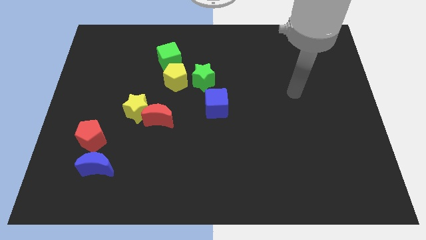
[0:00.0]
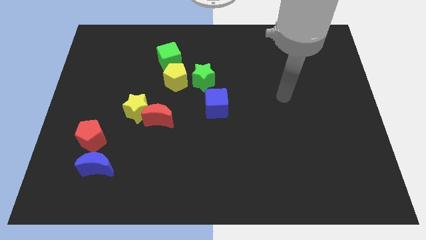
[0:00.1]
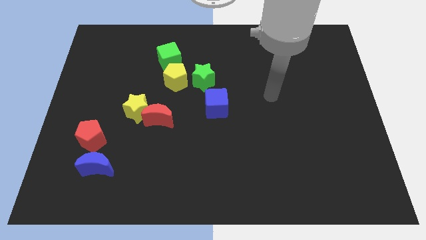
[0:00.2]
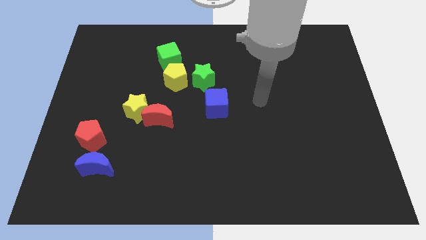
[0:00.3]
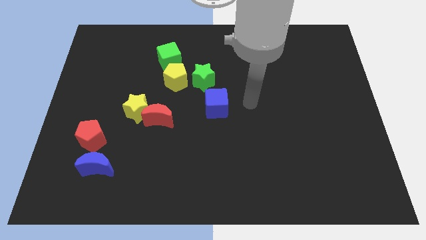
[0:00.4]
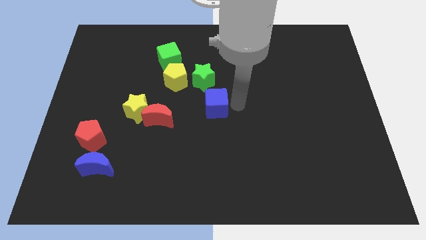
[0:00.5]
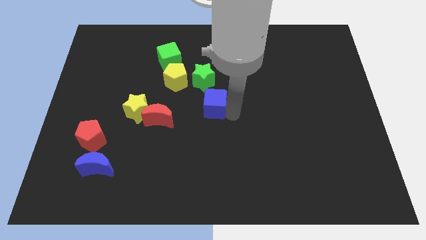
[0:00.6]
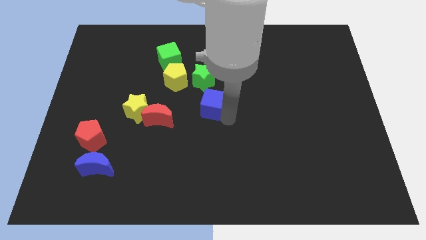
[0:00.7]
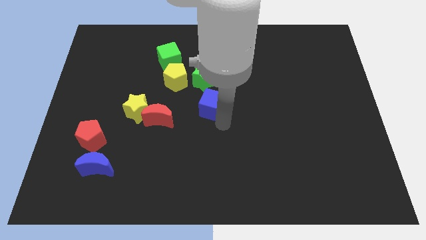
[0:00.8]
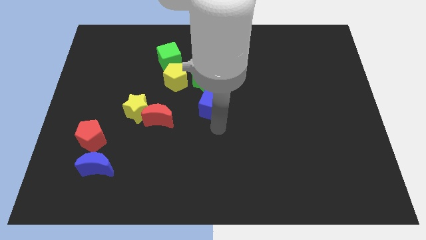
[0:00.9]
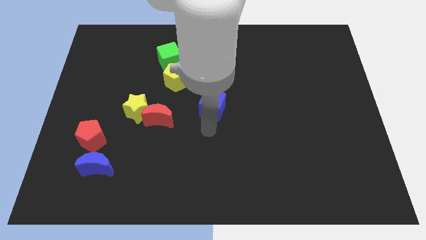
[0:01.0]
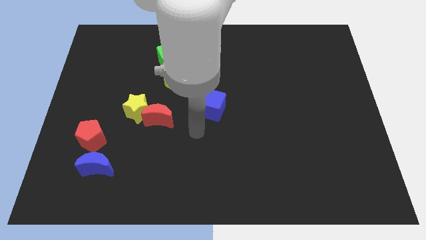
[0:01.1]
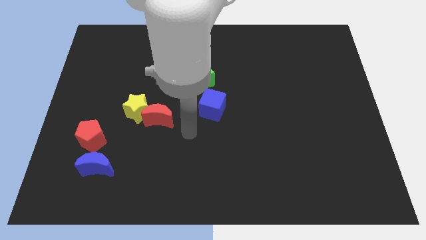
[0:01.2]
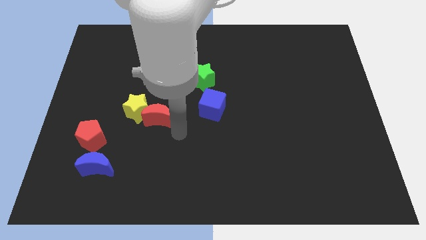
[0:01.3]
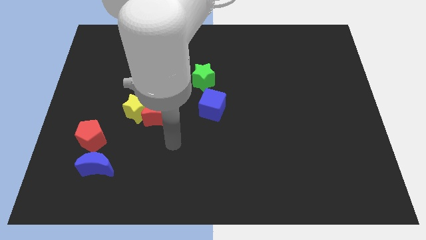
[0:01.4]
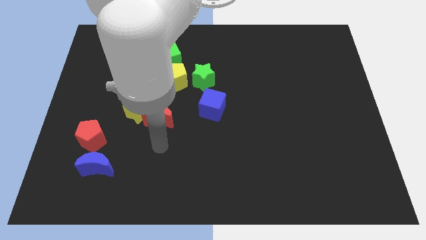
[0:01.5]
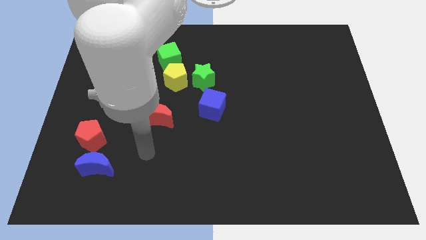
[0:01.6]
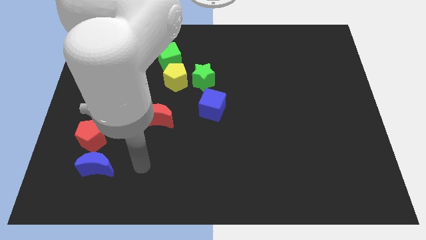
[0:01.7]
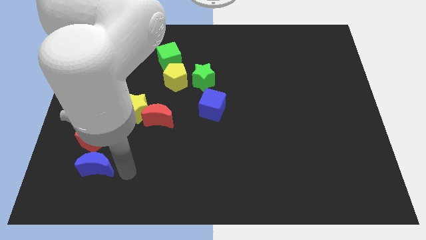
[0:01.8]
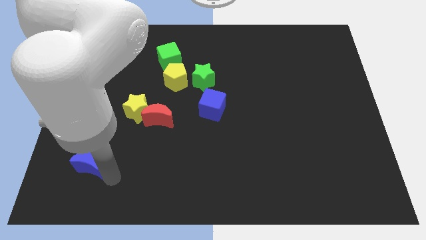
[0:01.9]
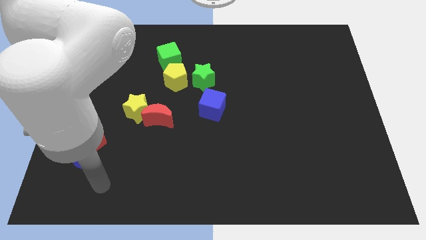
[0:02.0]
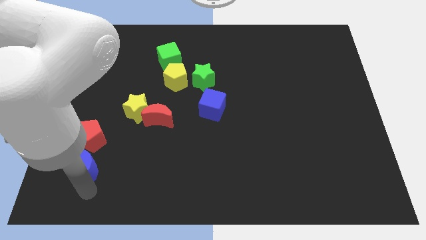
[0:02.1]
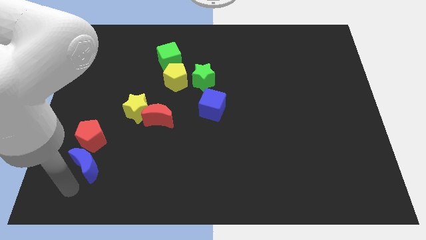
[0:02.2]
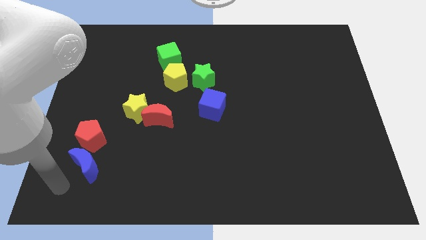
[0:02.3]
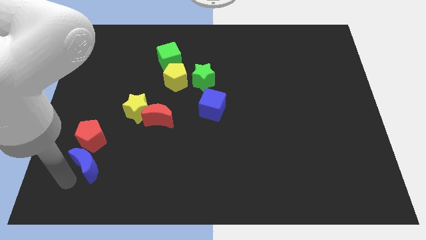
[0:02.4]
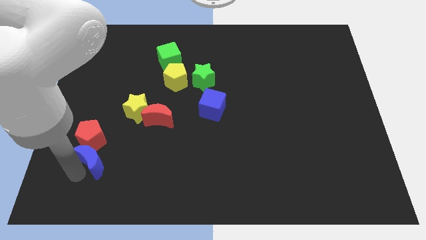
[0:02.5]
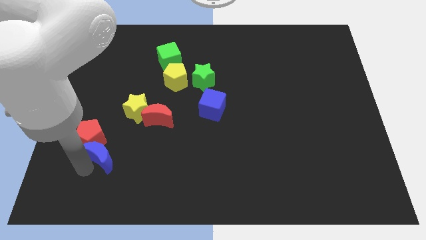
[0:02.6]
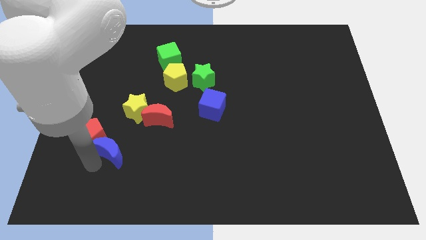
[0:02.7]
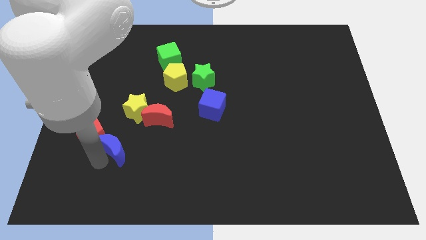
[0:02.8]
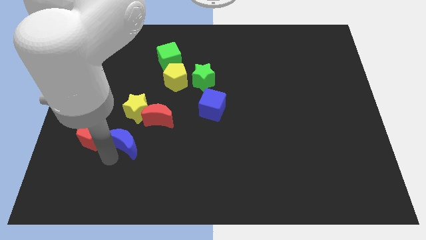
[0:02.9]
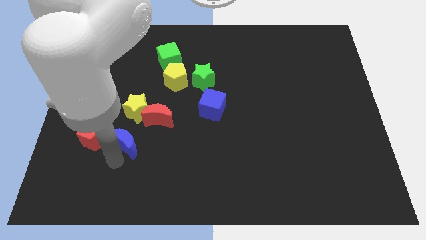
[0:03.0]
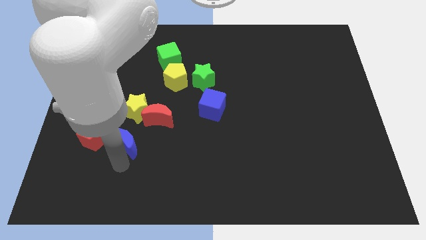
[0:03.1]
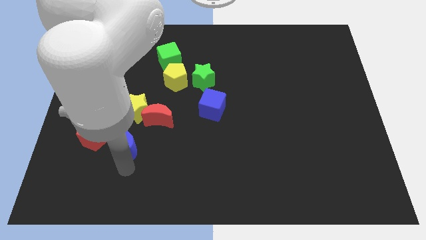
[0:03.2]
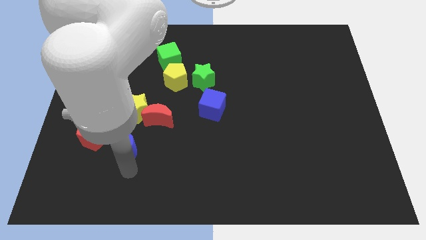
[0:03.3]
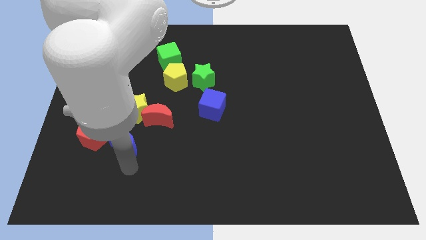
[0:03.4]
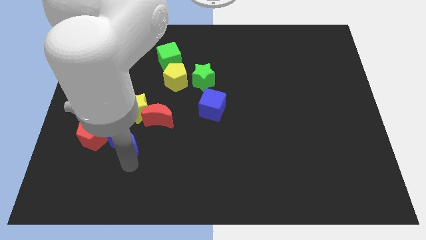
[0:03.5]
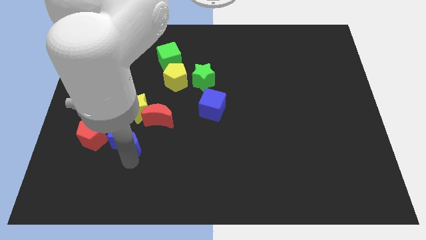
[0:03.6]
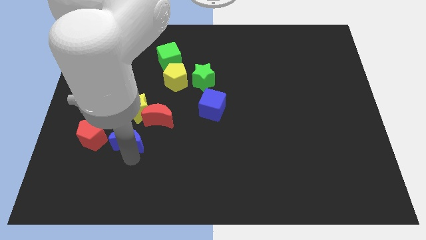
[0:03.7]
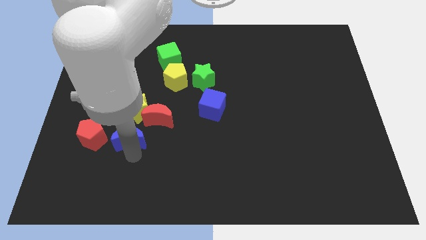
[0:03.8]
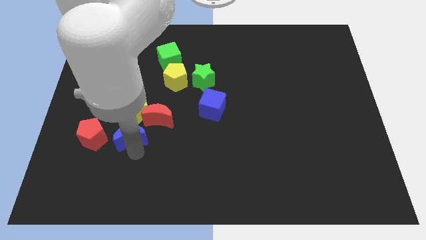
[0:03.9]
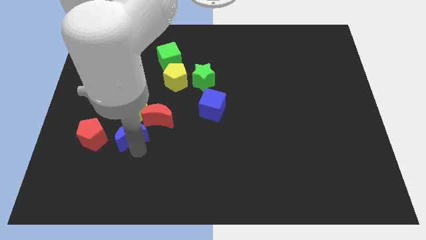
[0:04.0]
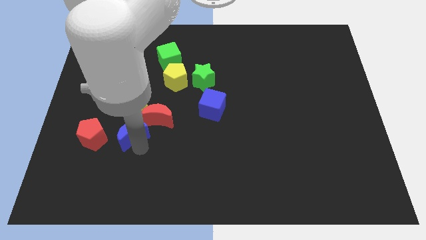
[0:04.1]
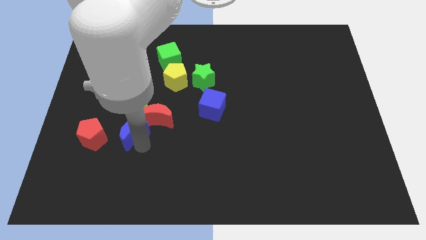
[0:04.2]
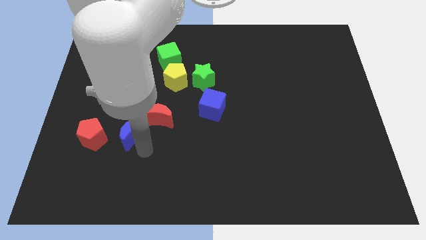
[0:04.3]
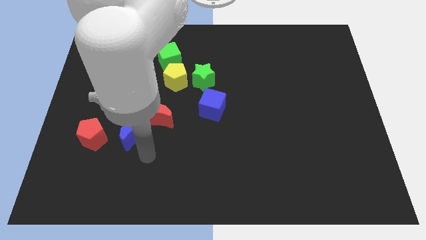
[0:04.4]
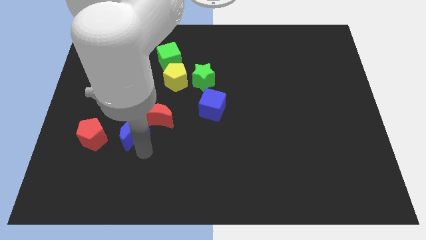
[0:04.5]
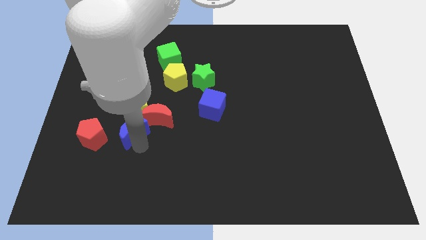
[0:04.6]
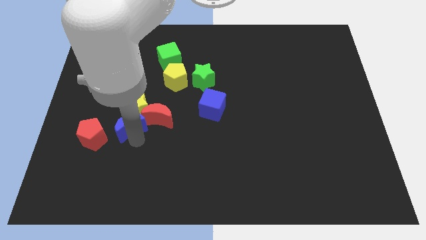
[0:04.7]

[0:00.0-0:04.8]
put the blue moon to the top right side of the red pentagon

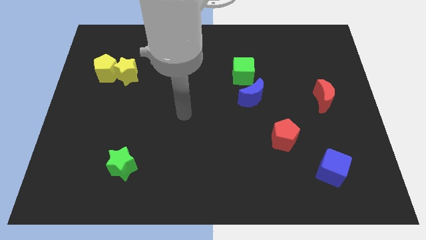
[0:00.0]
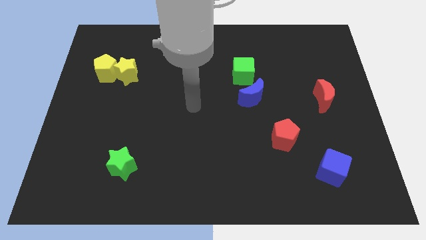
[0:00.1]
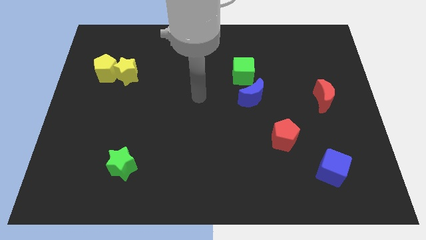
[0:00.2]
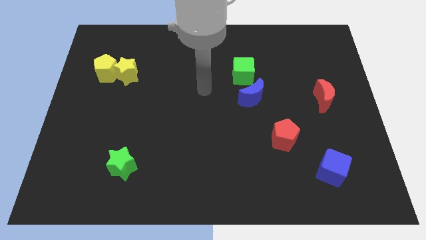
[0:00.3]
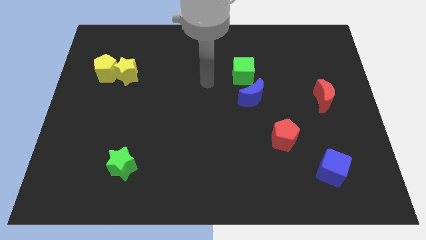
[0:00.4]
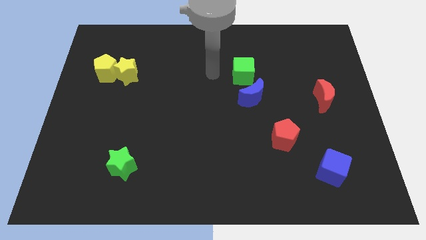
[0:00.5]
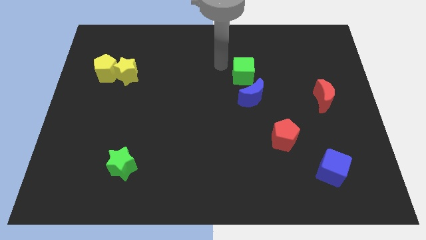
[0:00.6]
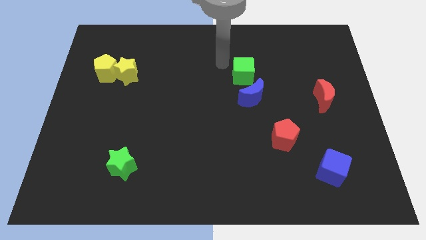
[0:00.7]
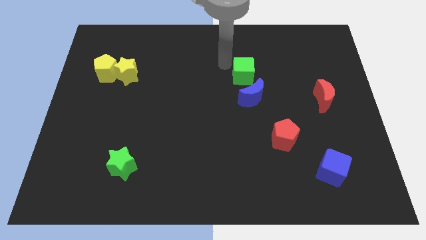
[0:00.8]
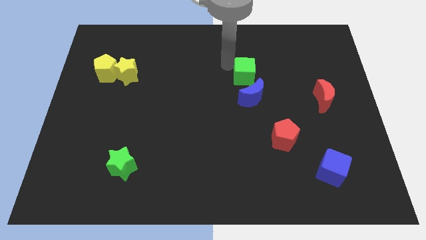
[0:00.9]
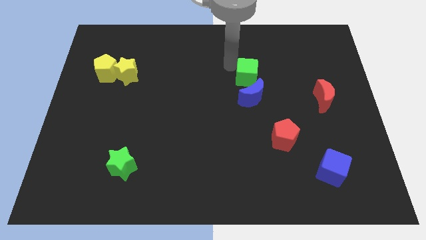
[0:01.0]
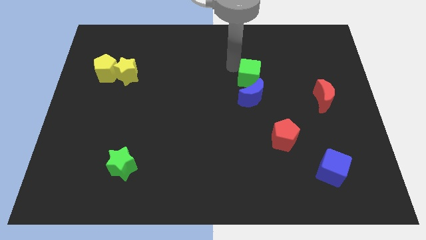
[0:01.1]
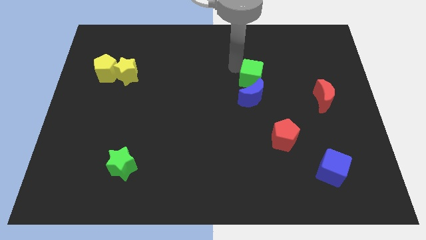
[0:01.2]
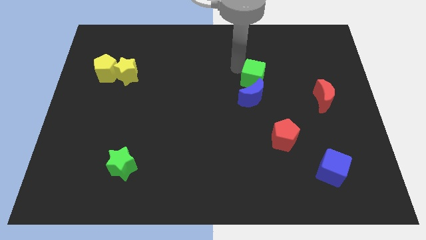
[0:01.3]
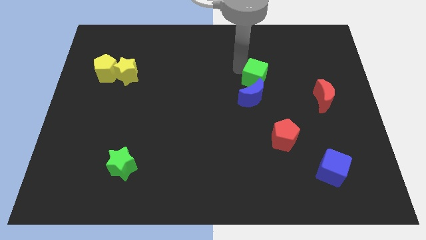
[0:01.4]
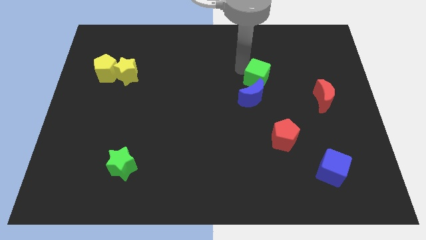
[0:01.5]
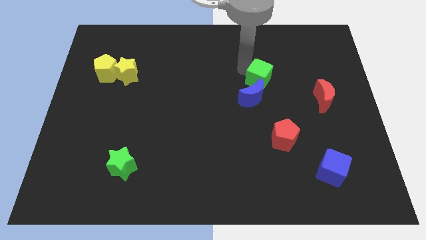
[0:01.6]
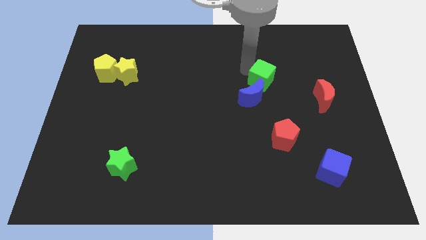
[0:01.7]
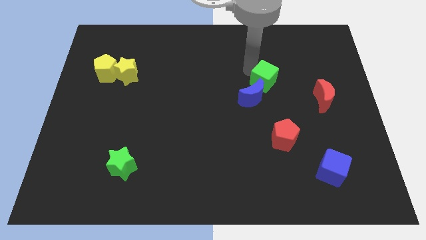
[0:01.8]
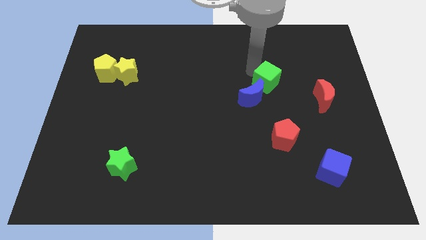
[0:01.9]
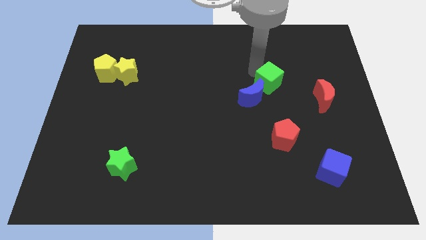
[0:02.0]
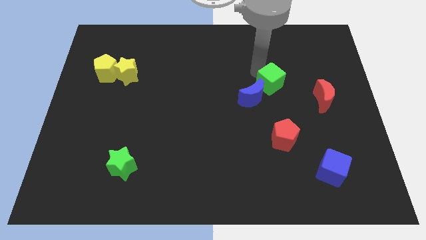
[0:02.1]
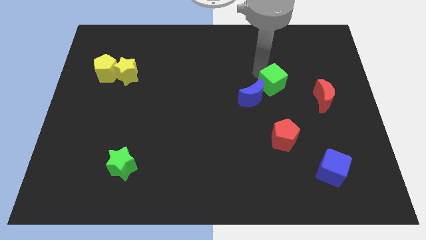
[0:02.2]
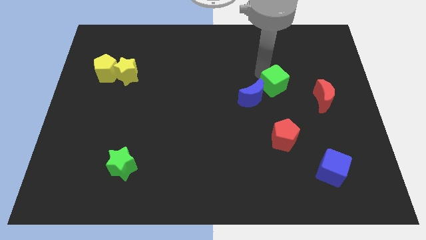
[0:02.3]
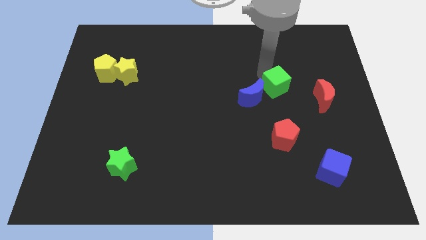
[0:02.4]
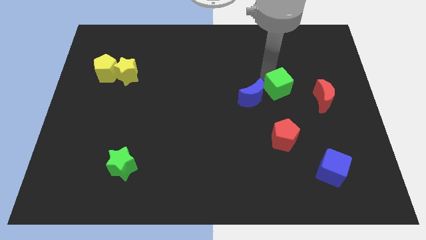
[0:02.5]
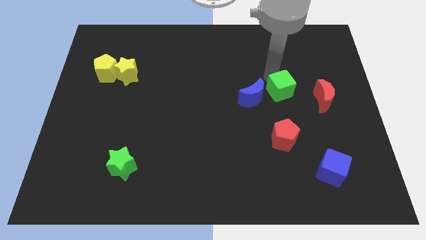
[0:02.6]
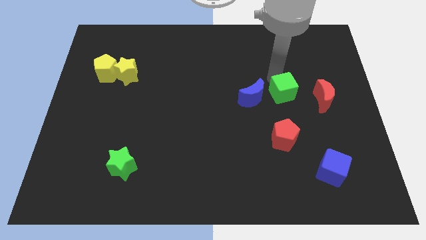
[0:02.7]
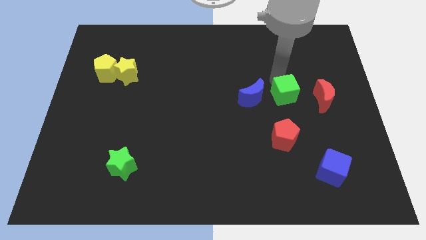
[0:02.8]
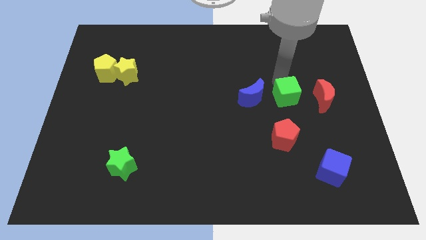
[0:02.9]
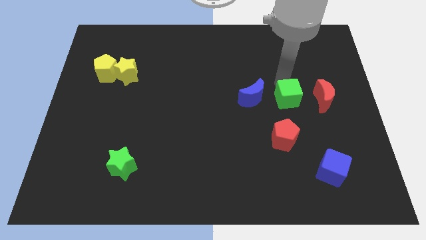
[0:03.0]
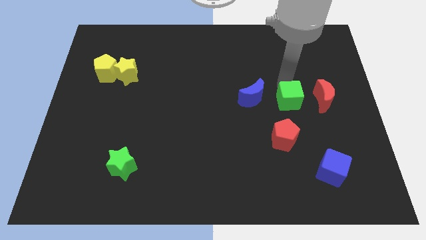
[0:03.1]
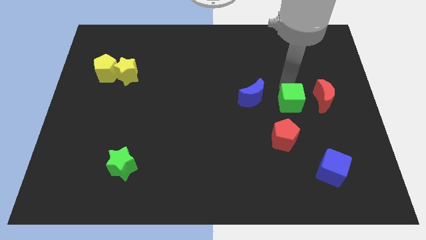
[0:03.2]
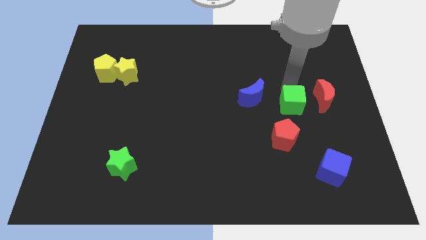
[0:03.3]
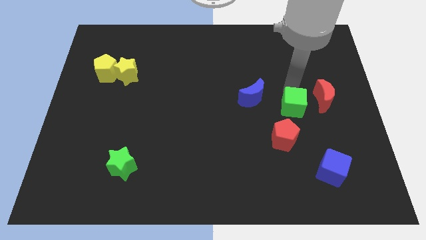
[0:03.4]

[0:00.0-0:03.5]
slide the green cube to the bottom right of the blue moon

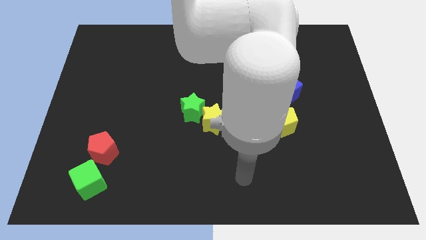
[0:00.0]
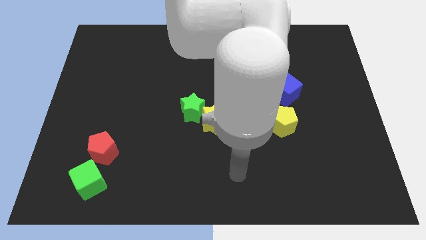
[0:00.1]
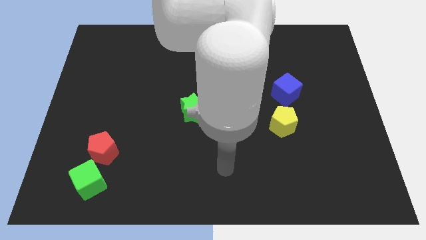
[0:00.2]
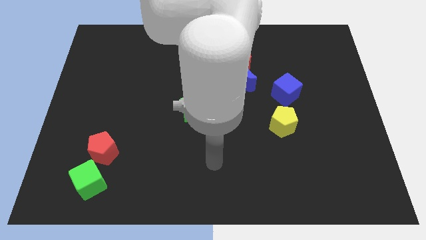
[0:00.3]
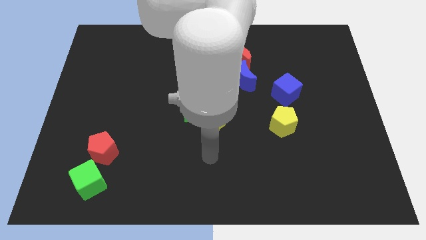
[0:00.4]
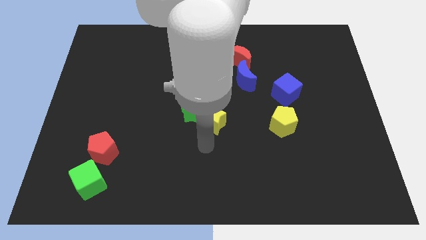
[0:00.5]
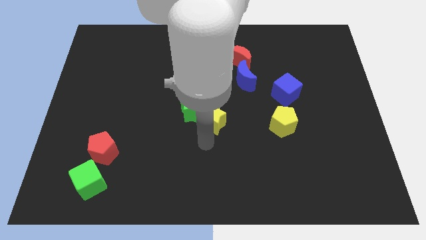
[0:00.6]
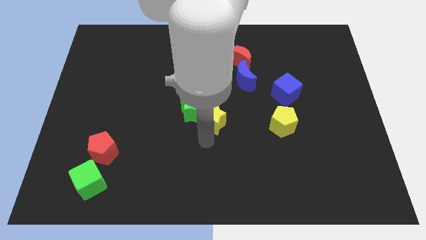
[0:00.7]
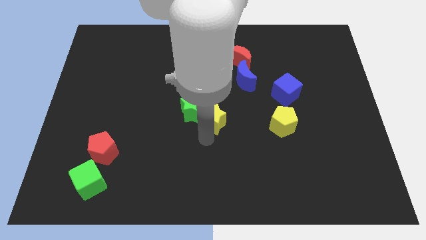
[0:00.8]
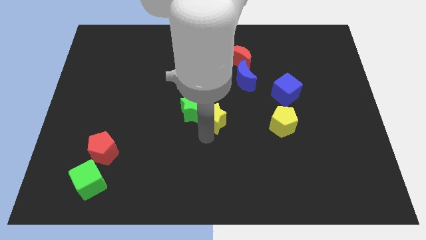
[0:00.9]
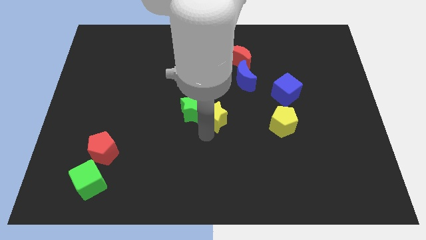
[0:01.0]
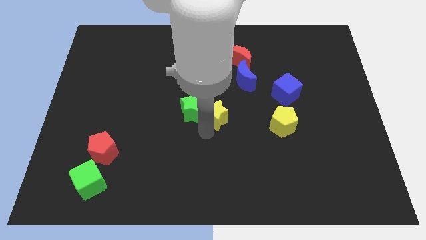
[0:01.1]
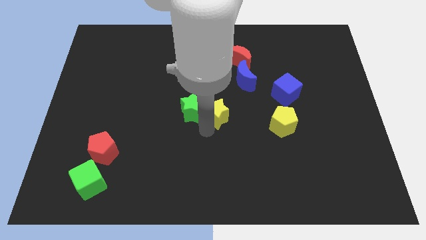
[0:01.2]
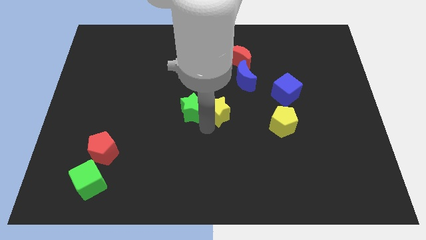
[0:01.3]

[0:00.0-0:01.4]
push the yellow star diagonally down and to the left of the blue moon
